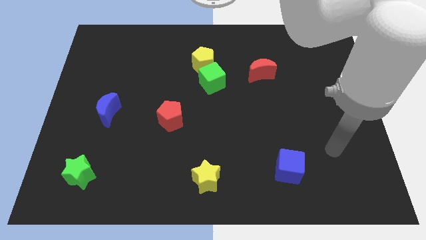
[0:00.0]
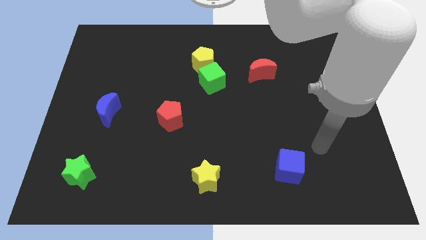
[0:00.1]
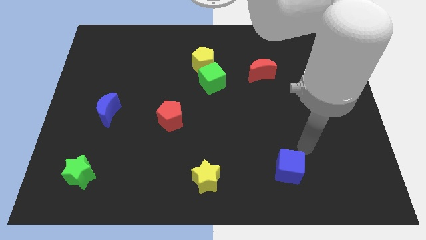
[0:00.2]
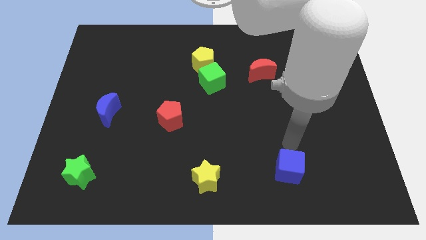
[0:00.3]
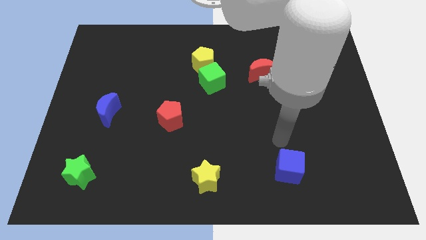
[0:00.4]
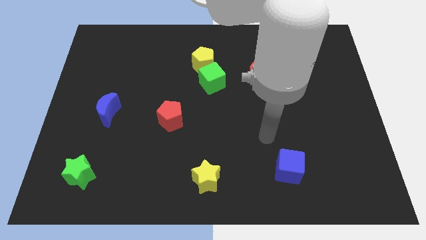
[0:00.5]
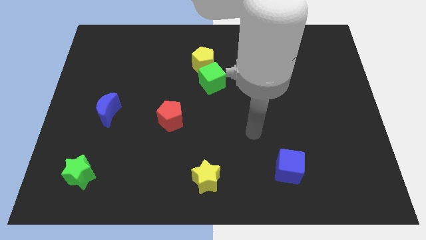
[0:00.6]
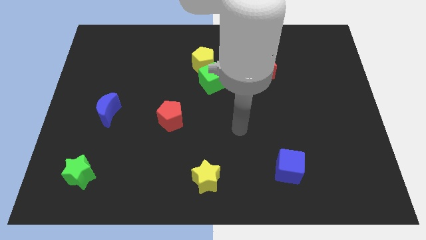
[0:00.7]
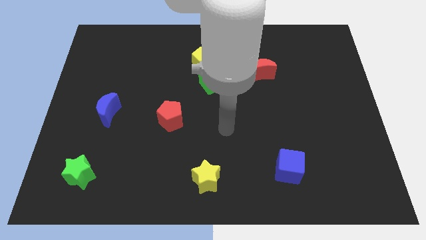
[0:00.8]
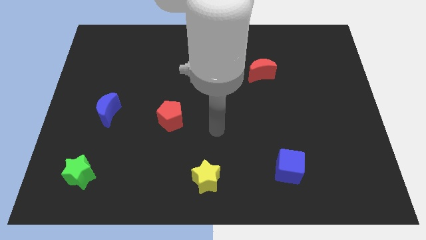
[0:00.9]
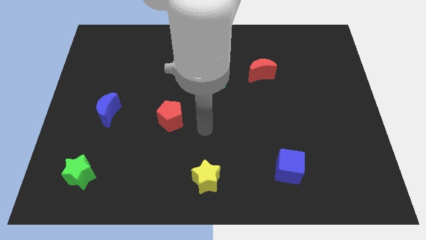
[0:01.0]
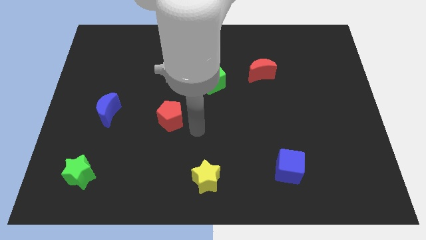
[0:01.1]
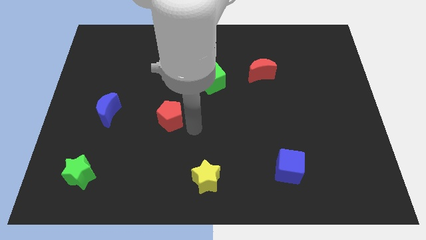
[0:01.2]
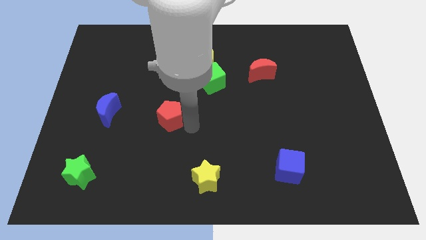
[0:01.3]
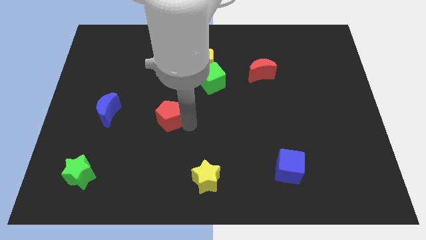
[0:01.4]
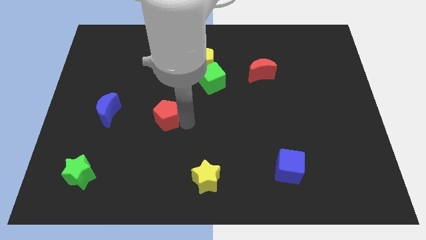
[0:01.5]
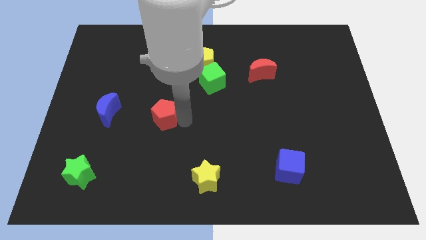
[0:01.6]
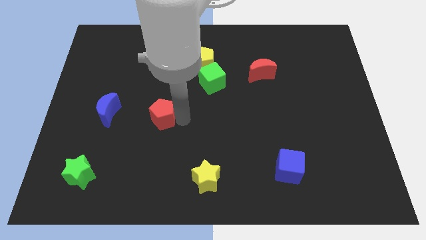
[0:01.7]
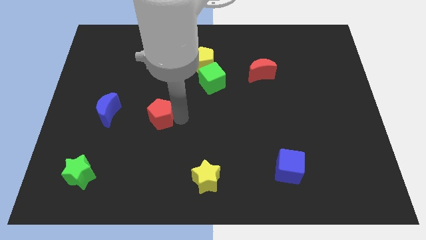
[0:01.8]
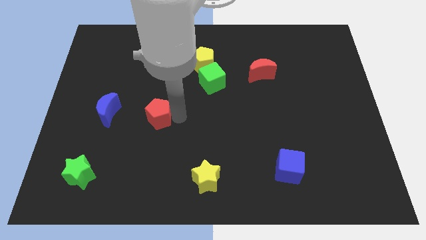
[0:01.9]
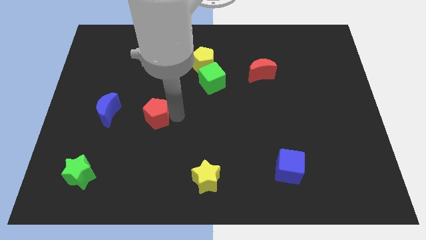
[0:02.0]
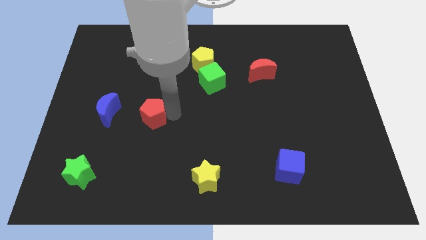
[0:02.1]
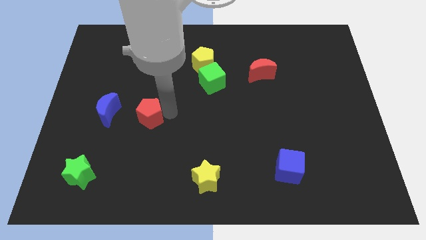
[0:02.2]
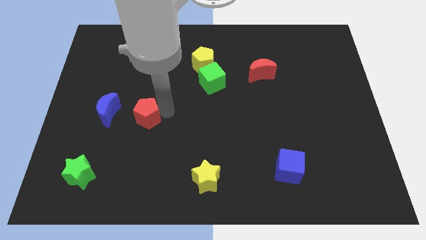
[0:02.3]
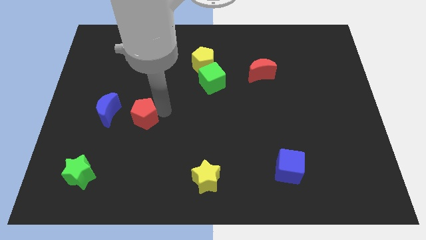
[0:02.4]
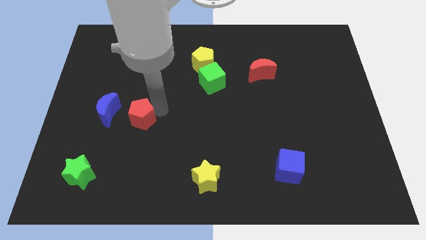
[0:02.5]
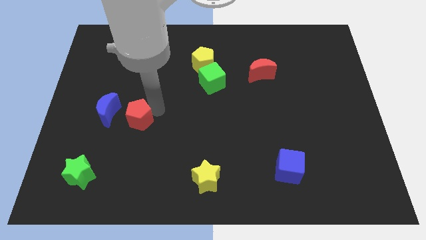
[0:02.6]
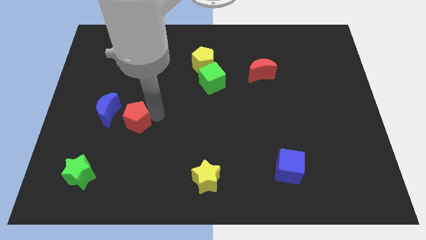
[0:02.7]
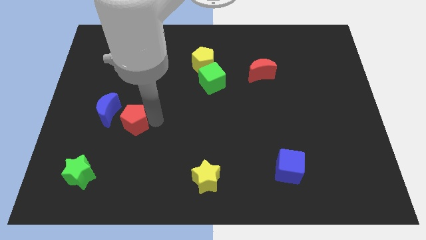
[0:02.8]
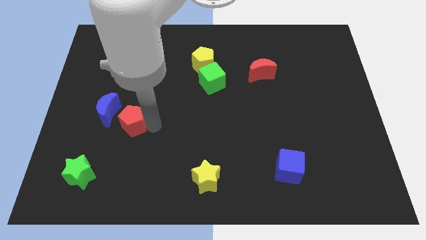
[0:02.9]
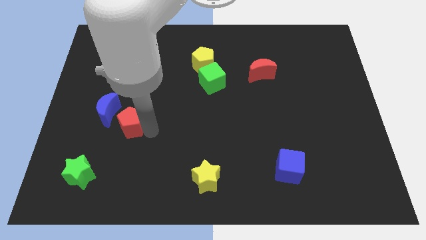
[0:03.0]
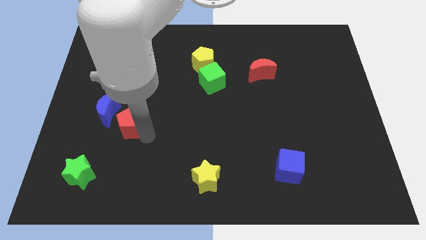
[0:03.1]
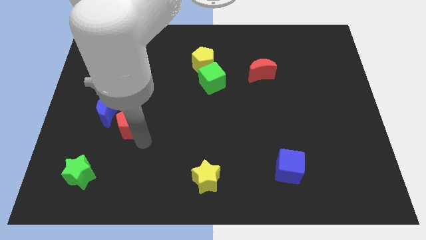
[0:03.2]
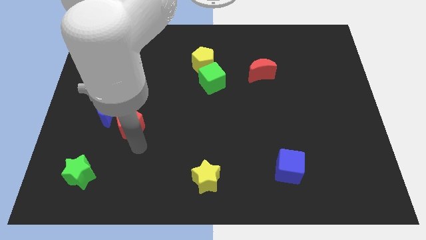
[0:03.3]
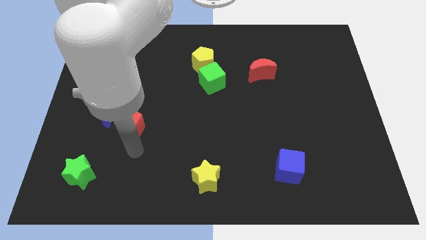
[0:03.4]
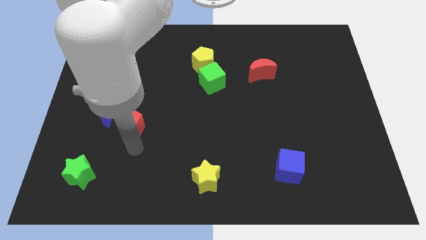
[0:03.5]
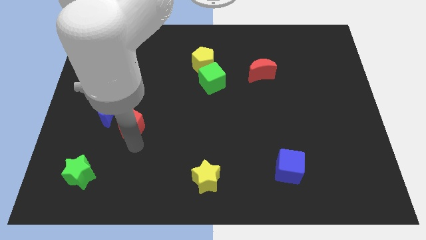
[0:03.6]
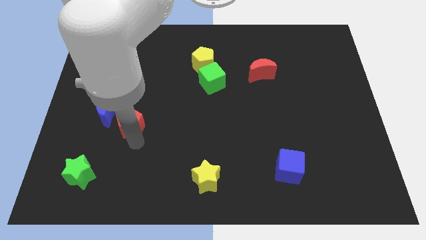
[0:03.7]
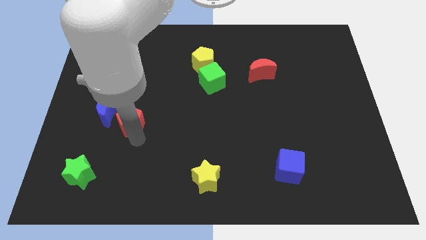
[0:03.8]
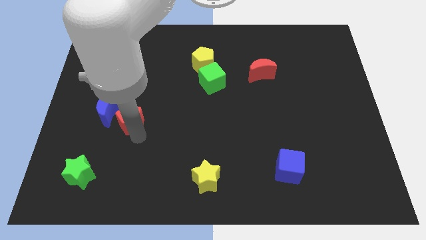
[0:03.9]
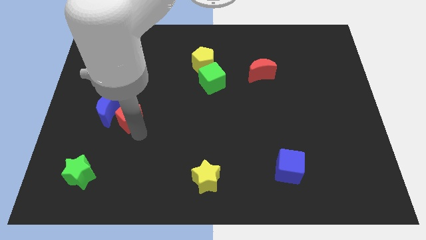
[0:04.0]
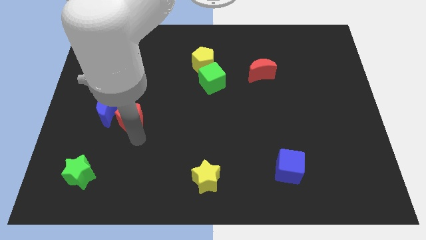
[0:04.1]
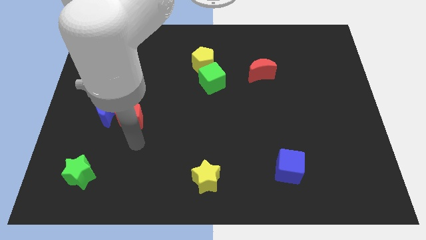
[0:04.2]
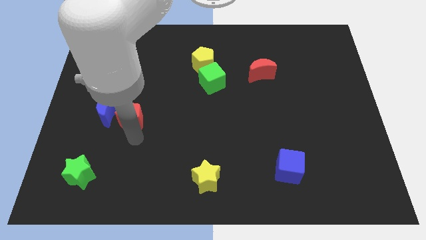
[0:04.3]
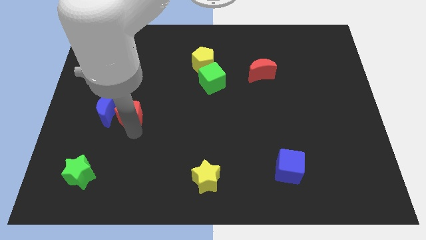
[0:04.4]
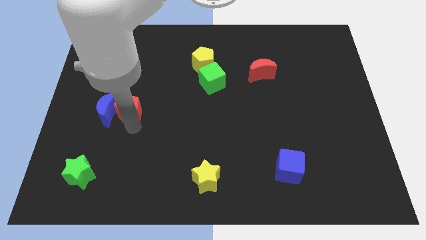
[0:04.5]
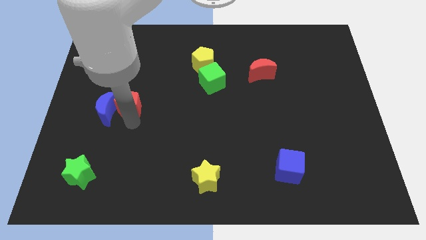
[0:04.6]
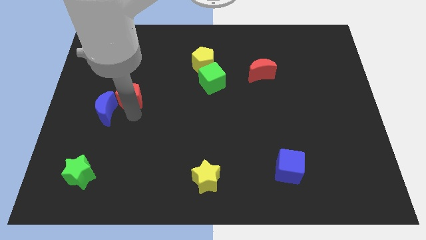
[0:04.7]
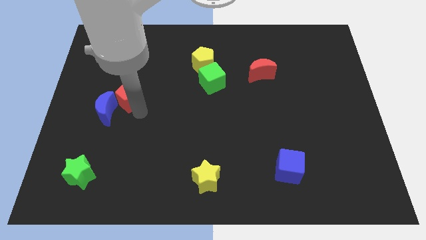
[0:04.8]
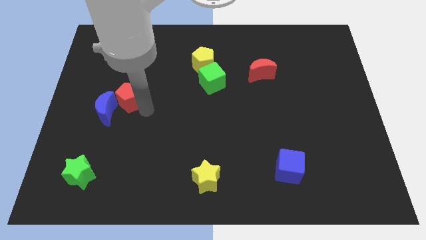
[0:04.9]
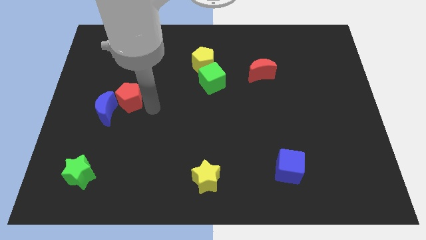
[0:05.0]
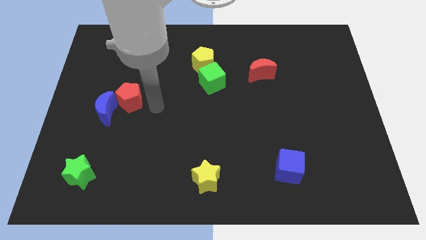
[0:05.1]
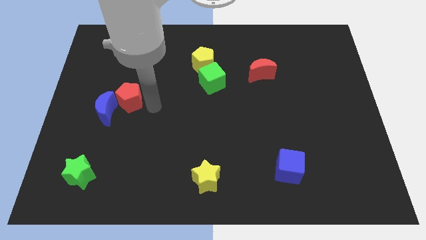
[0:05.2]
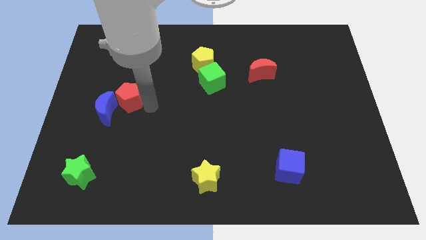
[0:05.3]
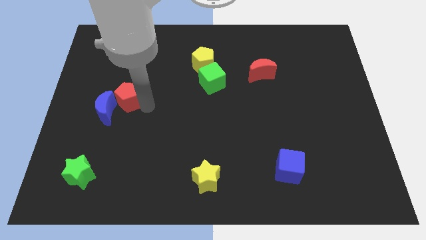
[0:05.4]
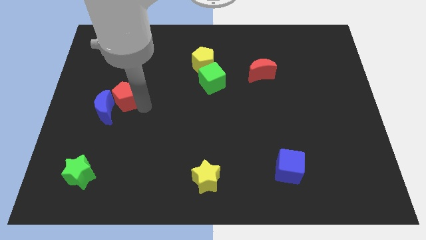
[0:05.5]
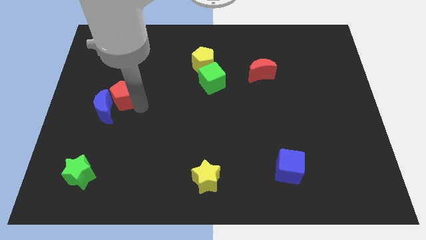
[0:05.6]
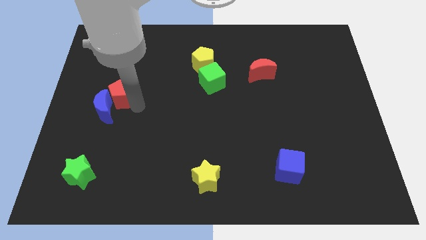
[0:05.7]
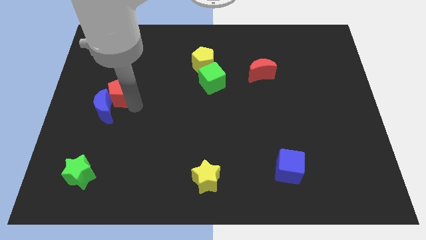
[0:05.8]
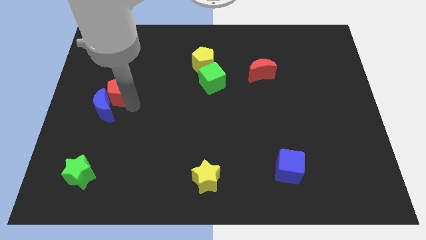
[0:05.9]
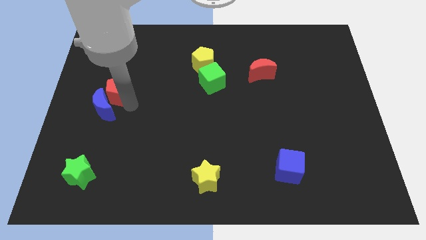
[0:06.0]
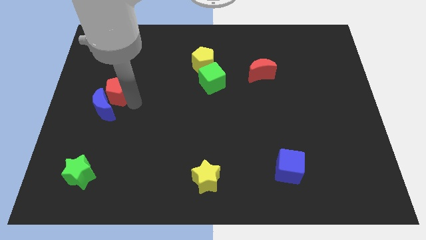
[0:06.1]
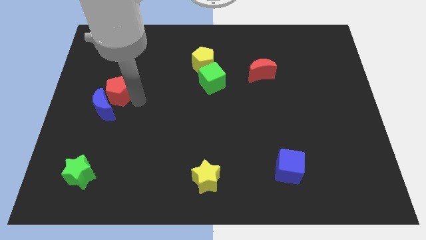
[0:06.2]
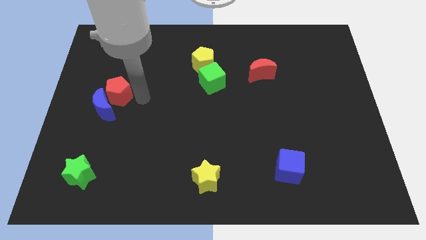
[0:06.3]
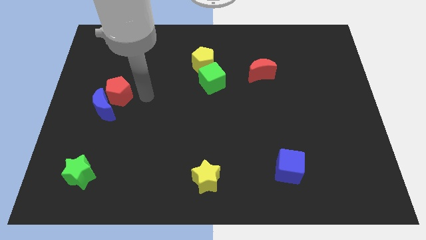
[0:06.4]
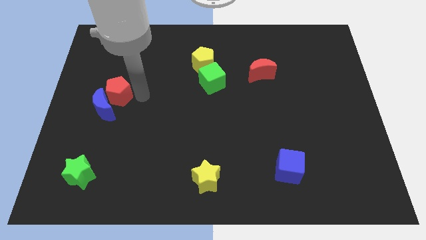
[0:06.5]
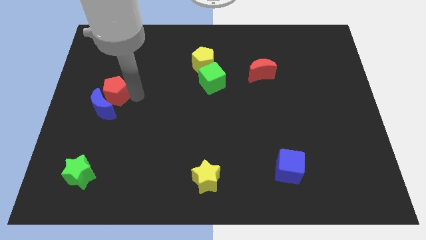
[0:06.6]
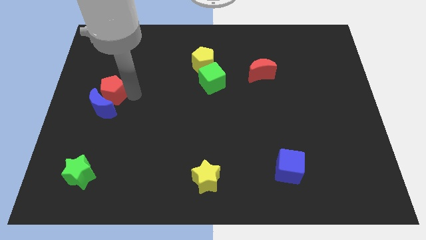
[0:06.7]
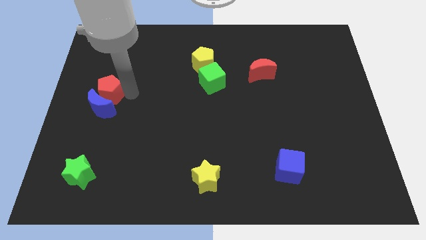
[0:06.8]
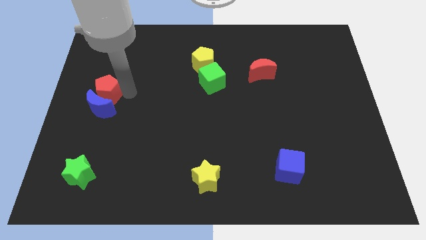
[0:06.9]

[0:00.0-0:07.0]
push the red pentagon to the left side

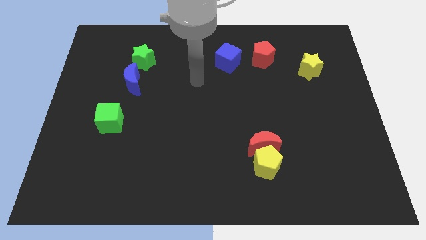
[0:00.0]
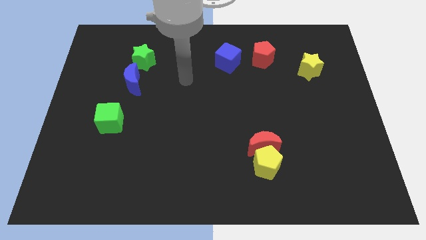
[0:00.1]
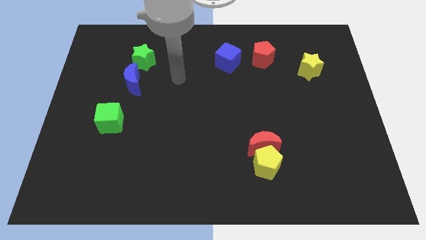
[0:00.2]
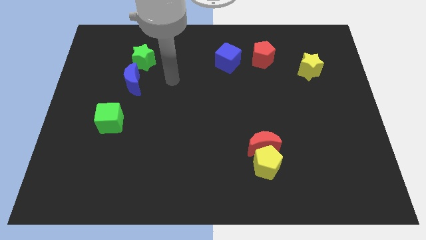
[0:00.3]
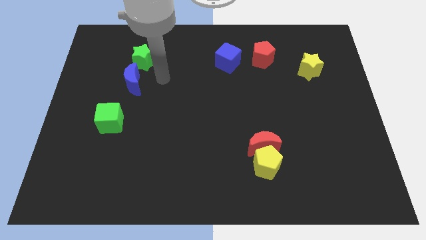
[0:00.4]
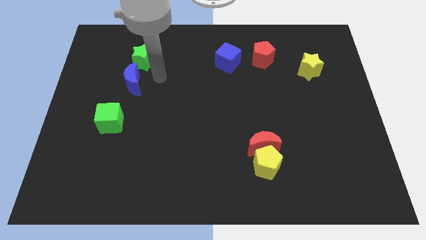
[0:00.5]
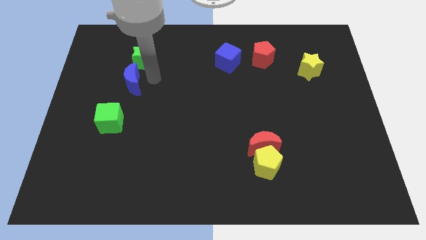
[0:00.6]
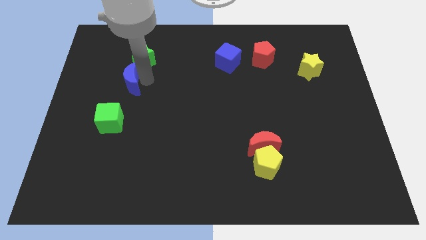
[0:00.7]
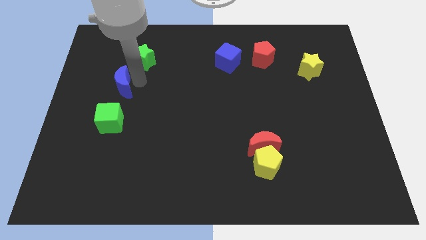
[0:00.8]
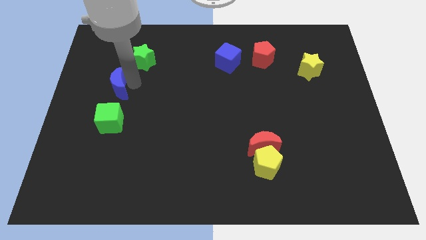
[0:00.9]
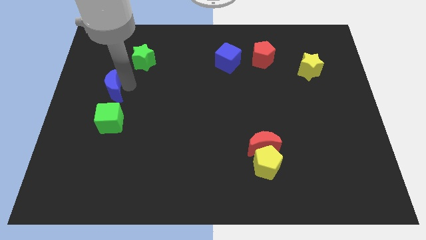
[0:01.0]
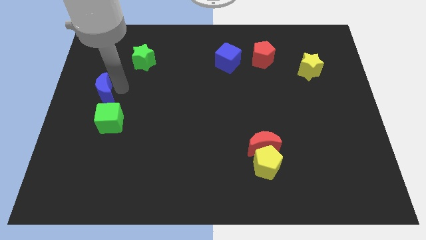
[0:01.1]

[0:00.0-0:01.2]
push the blue moon to the center left
